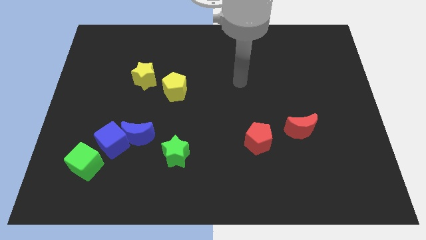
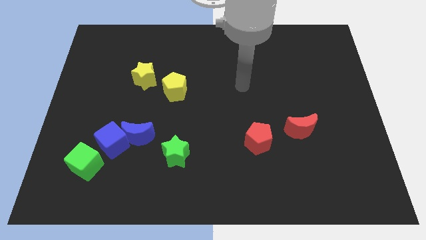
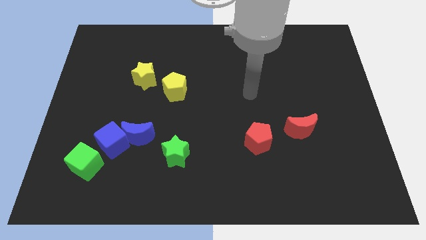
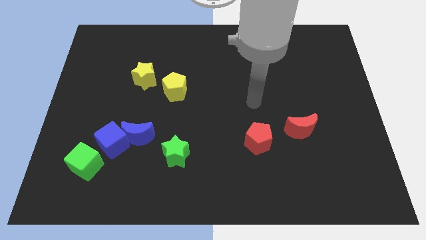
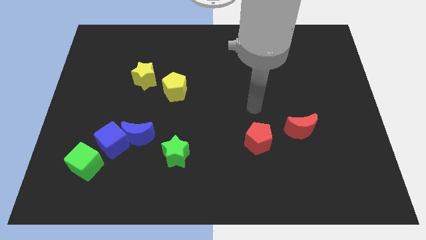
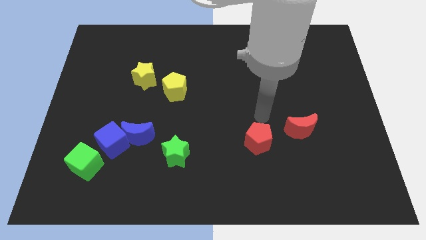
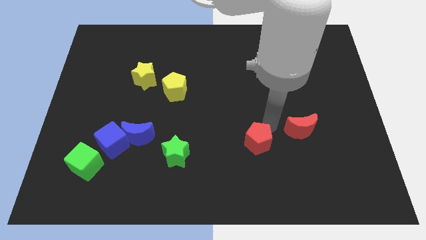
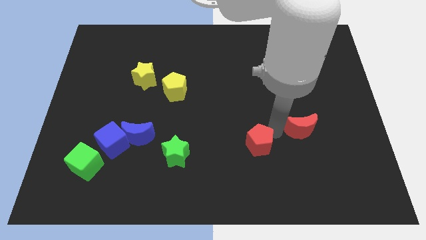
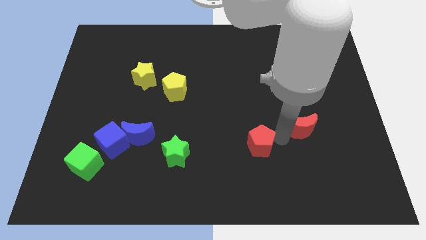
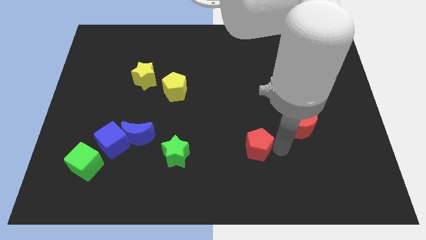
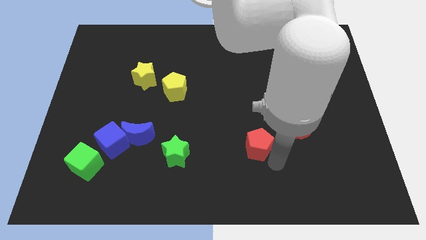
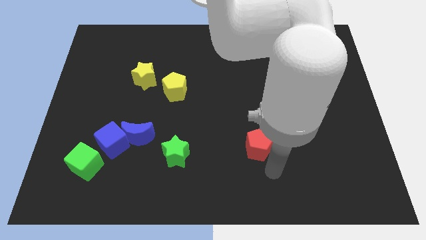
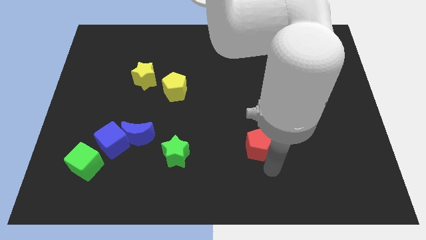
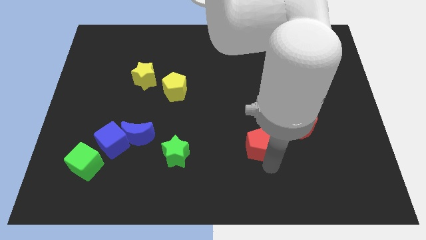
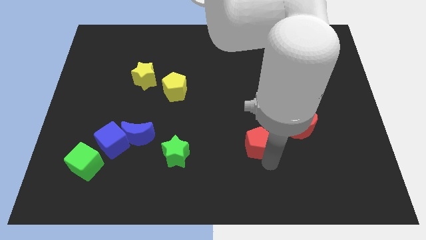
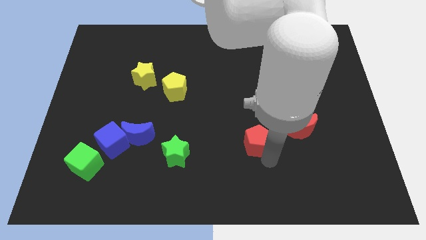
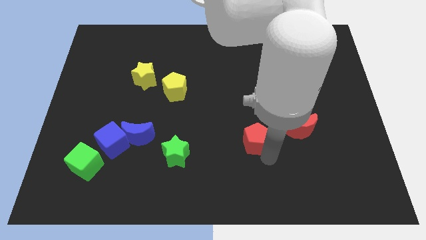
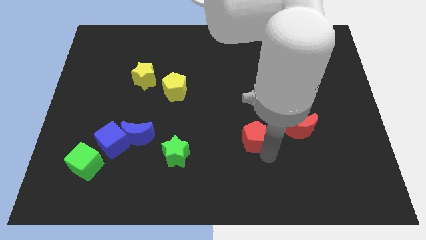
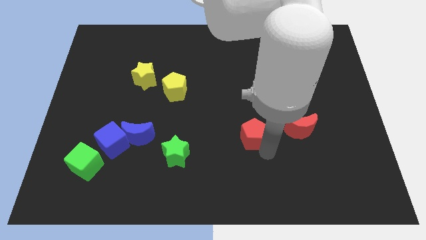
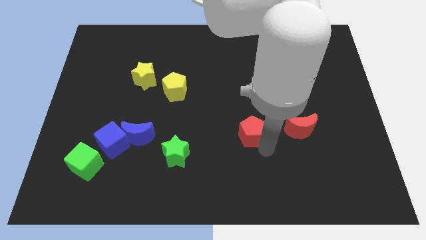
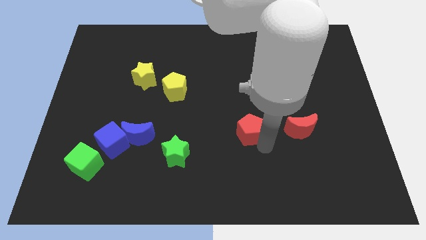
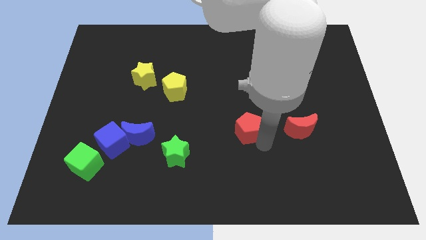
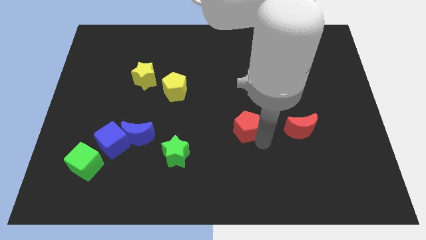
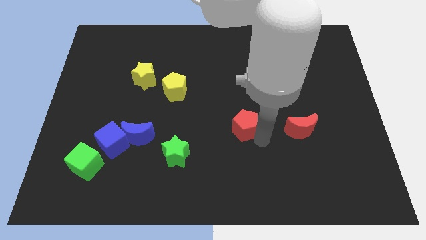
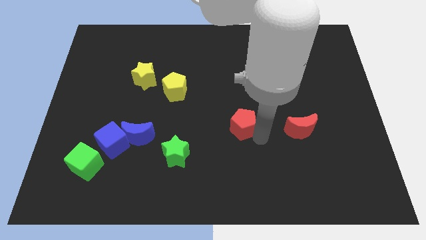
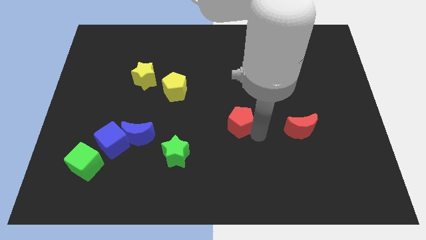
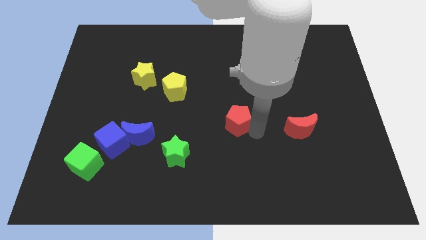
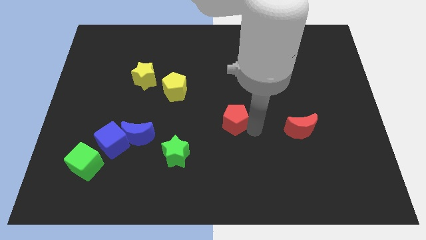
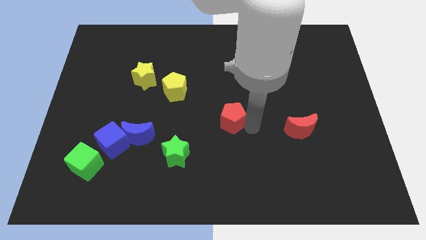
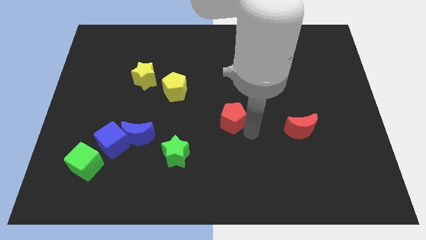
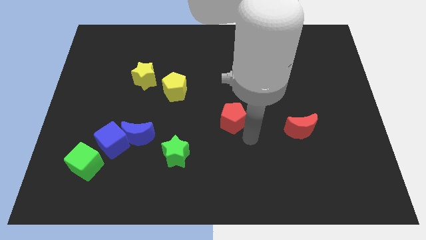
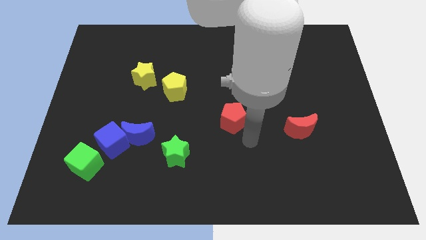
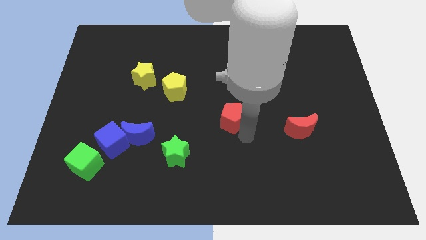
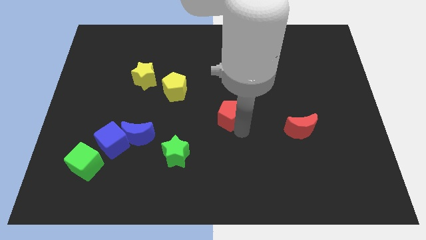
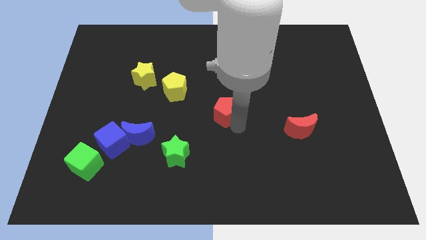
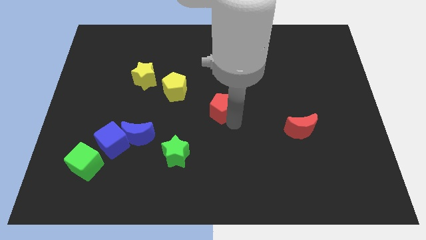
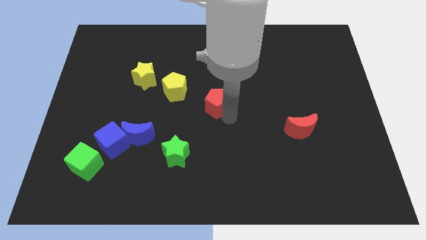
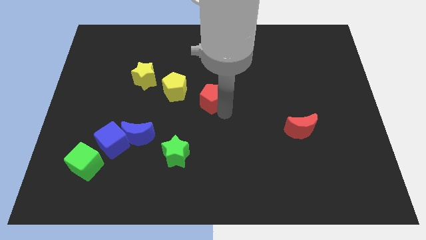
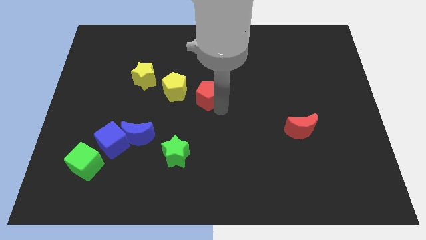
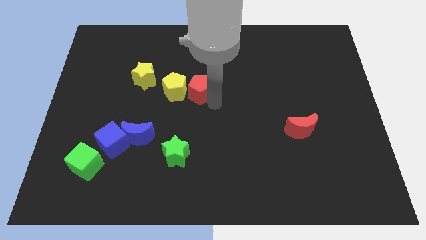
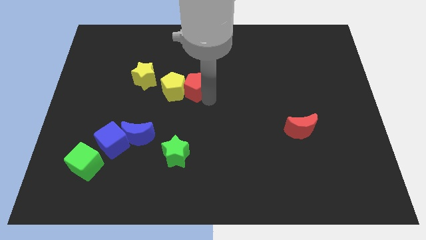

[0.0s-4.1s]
slide the red pentagon diagonally upwards and left

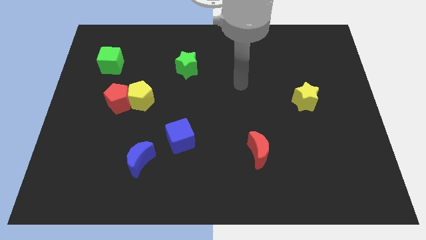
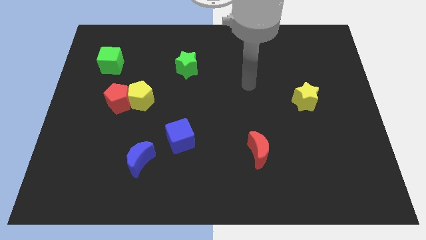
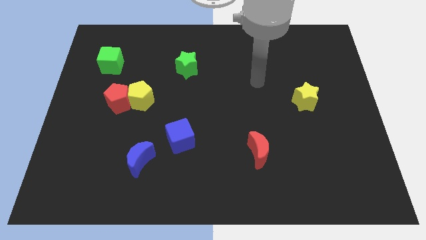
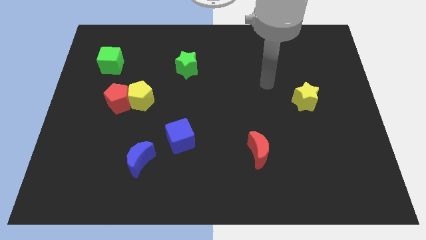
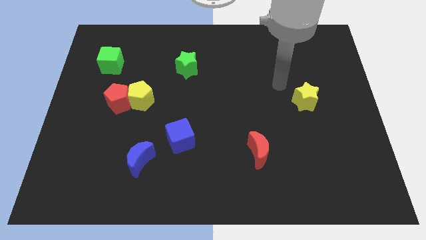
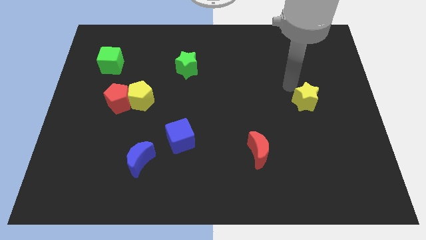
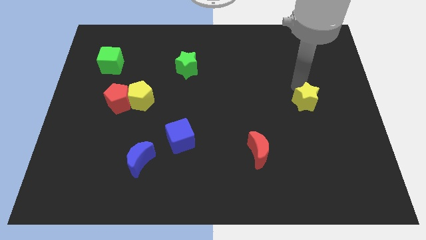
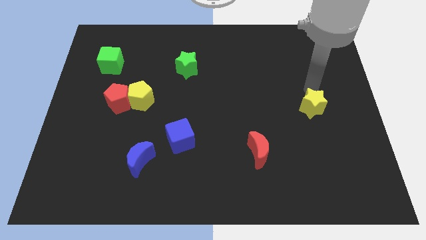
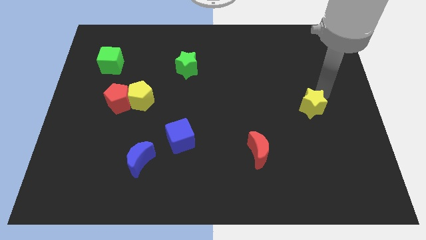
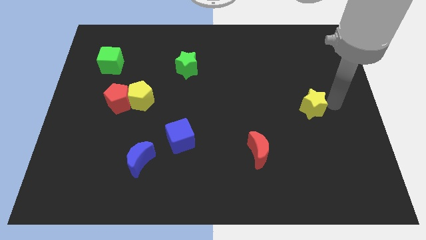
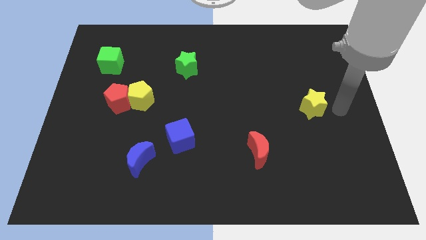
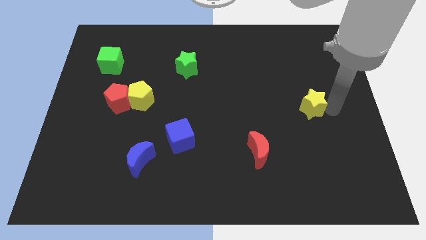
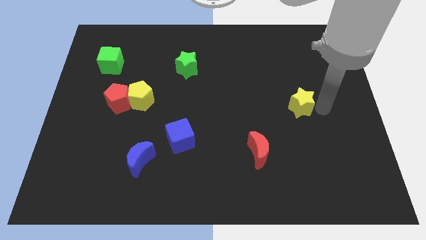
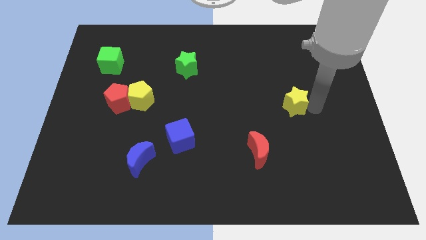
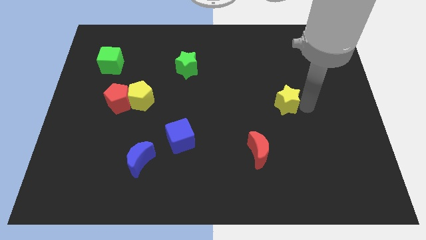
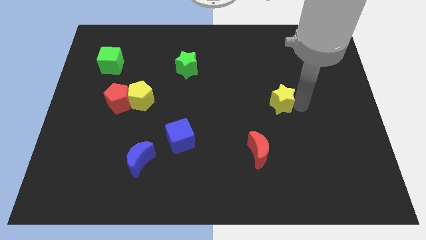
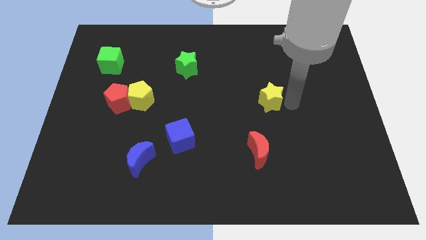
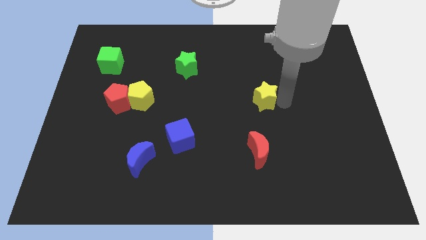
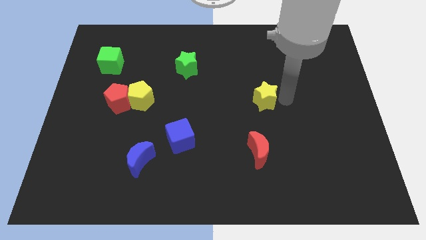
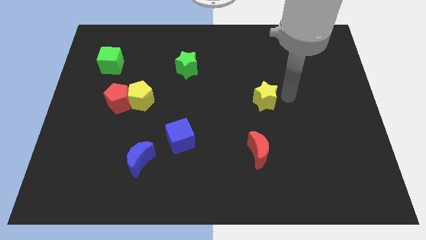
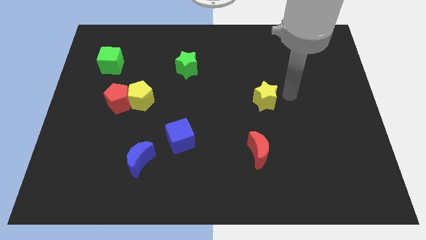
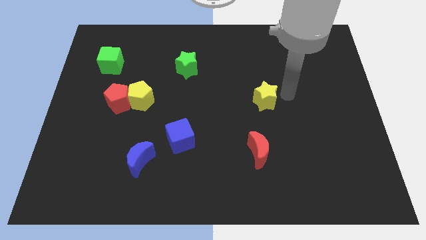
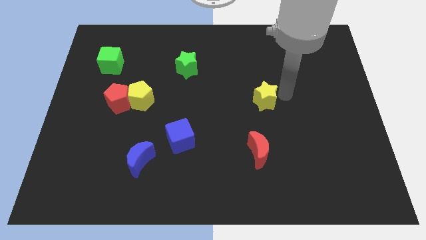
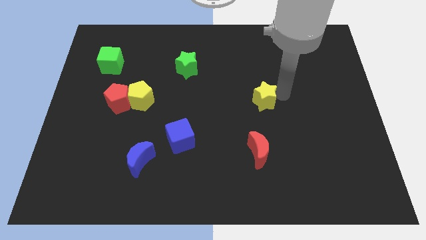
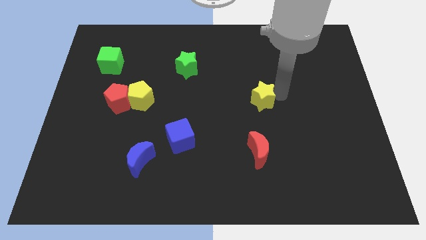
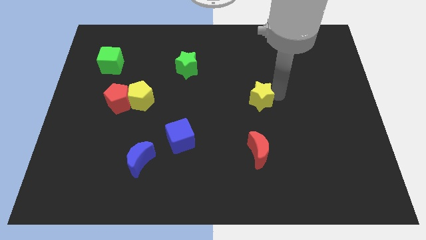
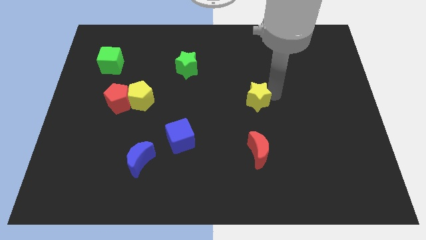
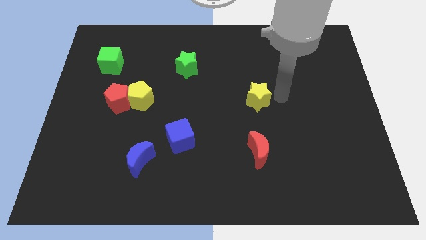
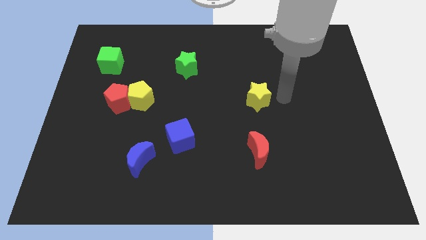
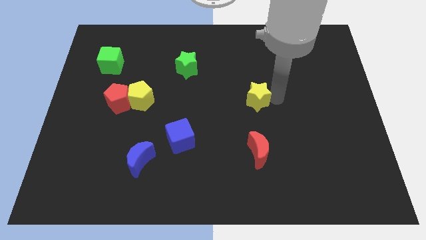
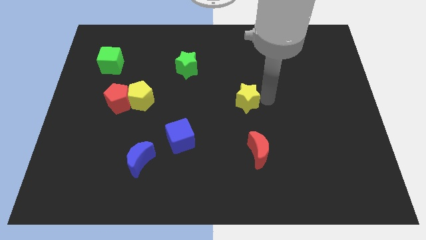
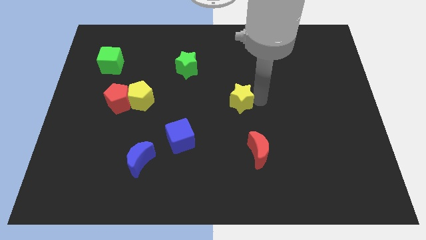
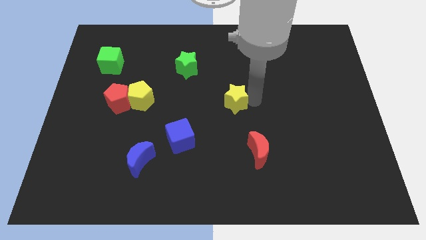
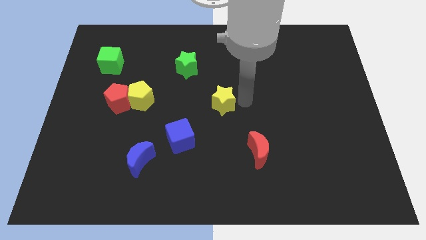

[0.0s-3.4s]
slide the yellow star to the left

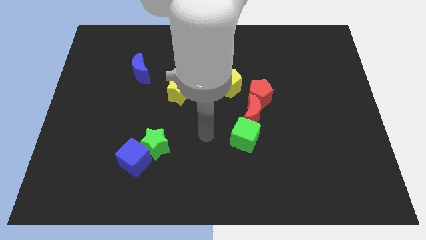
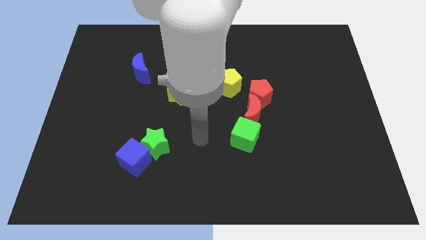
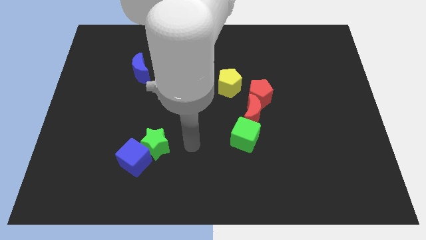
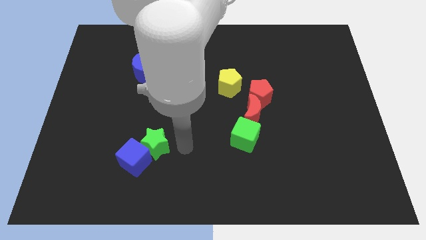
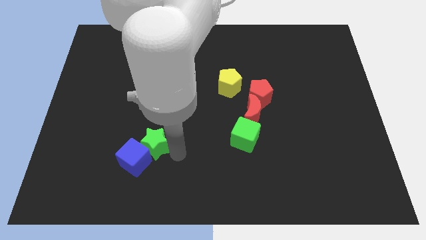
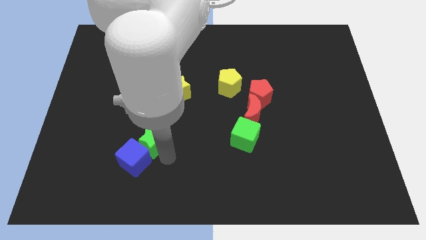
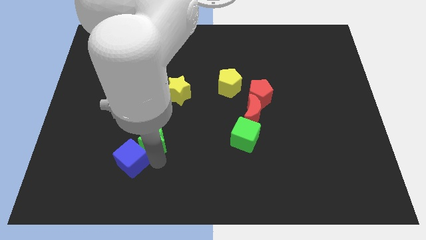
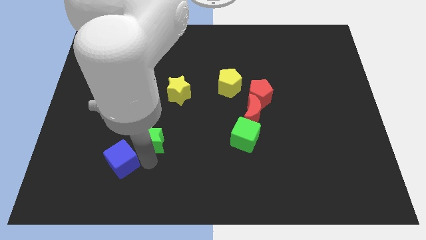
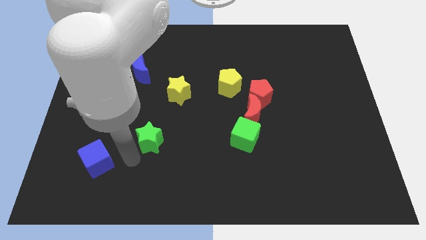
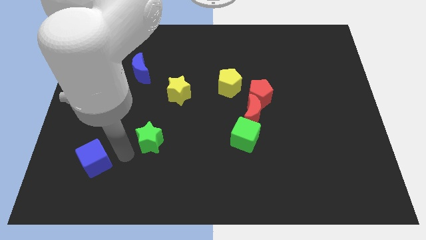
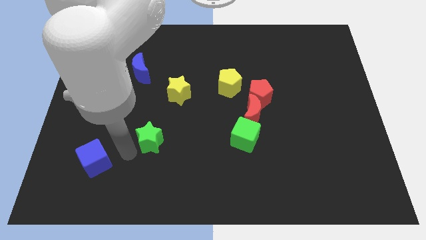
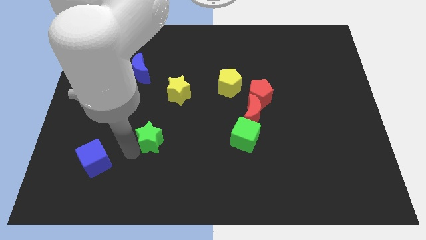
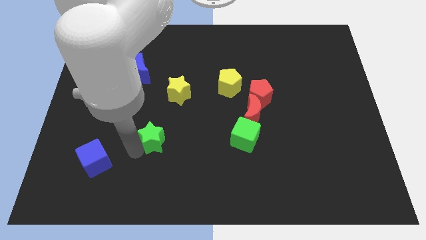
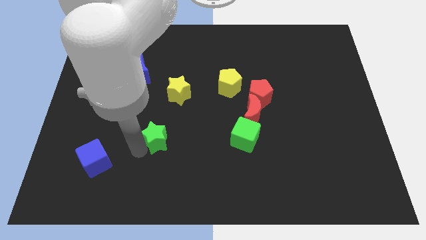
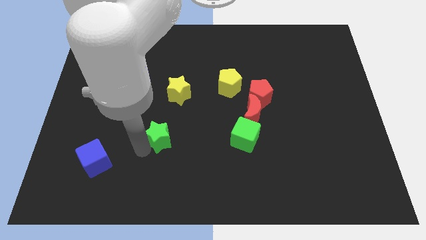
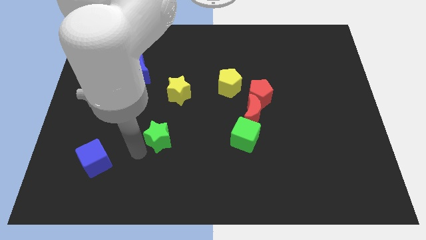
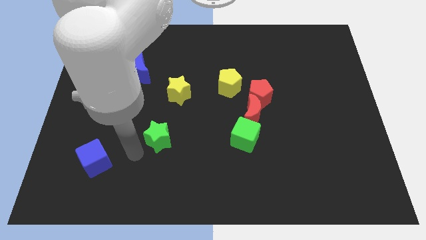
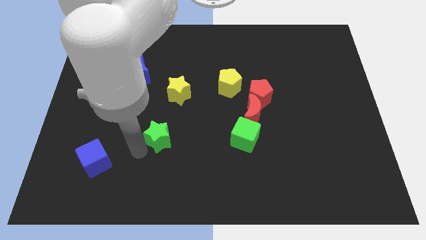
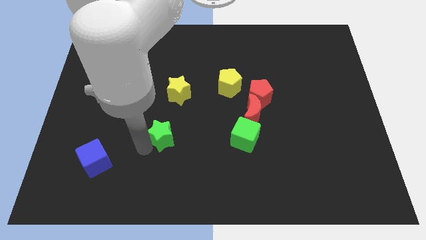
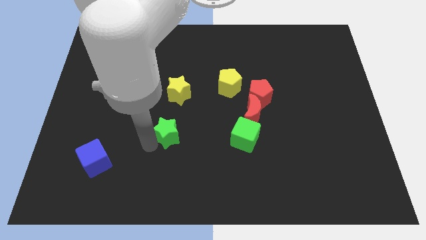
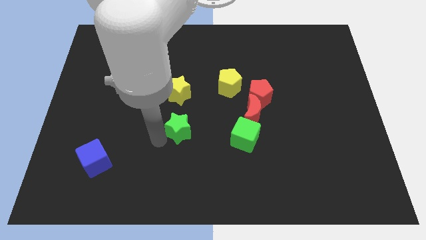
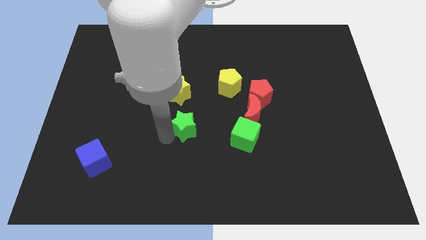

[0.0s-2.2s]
slightly move the green star upwards and then to the right
